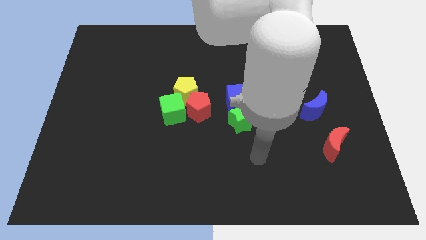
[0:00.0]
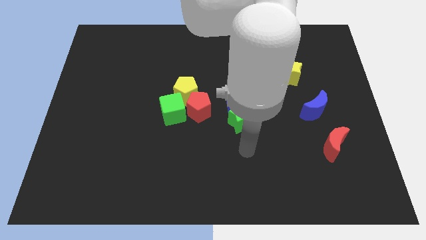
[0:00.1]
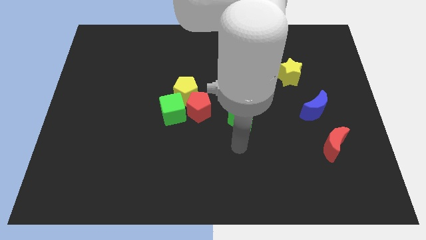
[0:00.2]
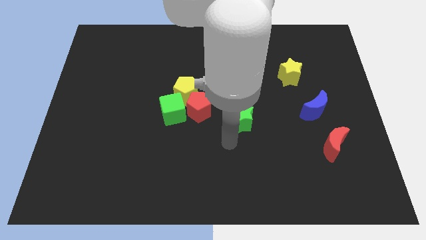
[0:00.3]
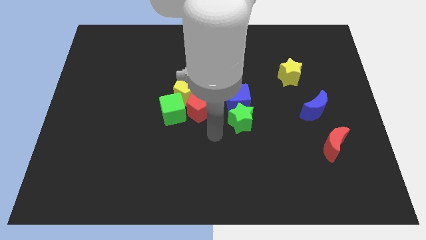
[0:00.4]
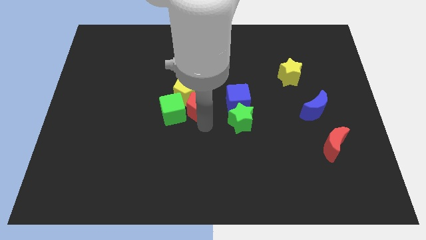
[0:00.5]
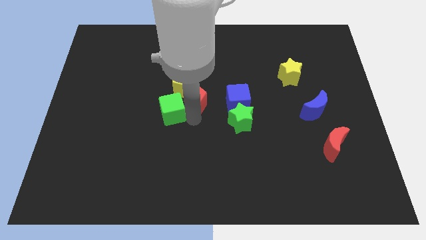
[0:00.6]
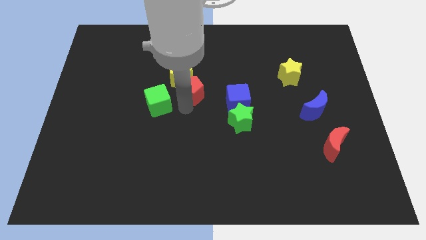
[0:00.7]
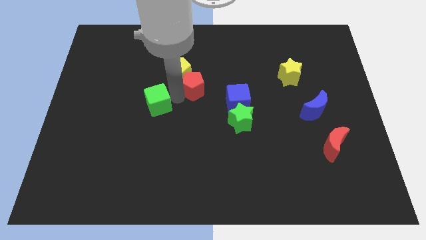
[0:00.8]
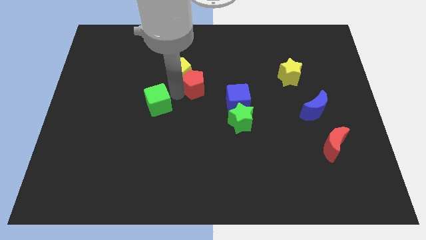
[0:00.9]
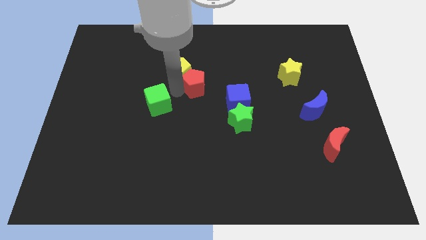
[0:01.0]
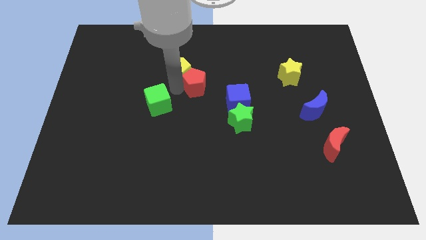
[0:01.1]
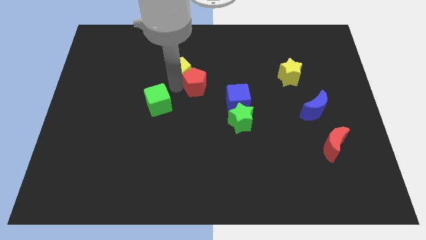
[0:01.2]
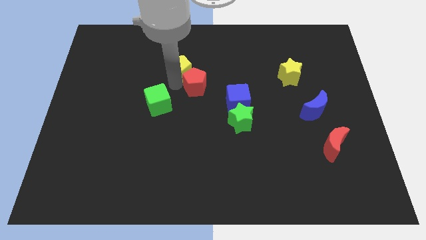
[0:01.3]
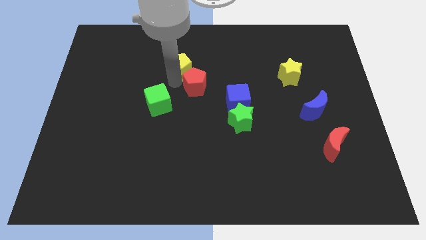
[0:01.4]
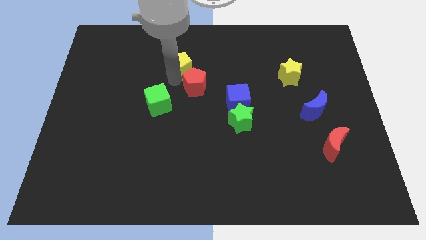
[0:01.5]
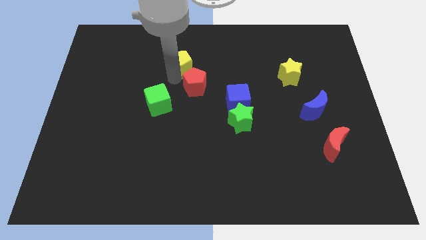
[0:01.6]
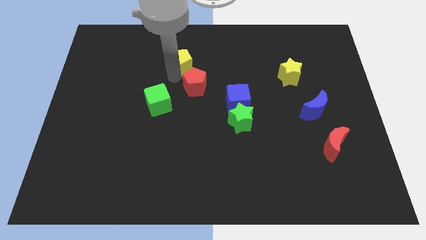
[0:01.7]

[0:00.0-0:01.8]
pull the yellow pentagon apart from the red pentagon and green cube

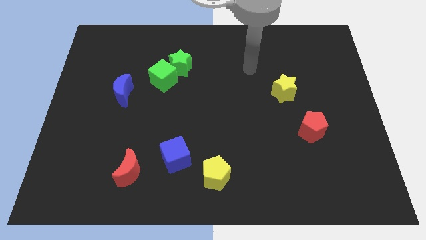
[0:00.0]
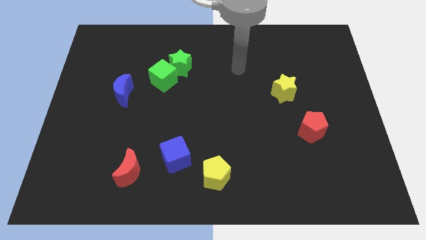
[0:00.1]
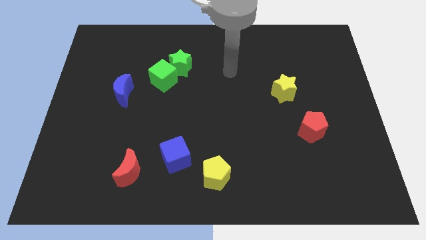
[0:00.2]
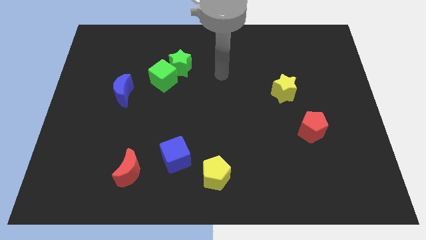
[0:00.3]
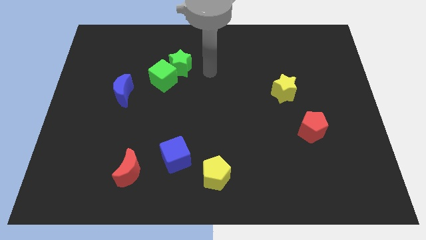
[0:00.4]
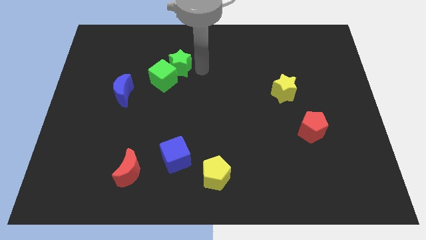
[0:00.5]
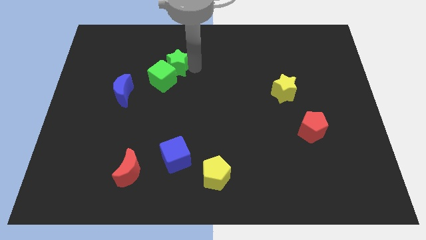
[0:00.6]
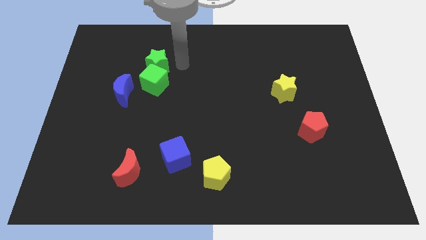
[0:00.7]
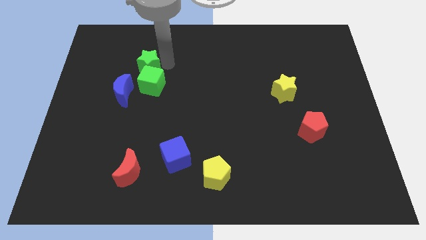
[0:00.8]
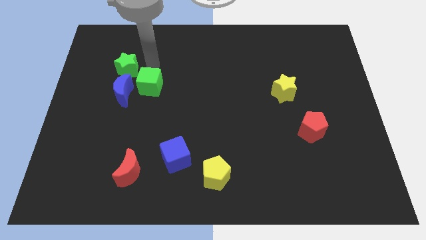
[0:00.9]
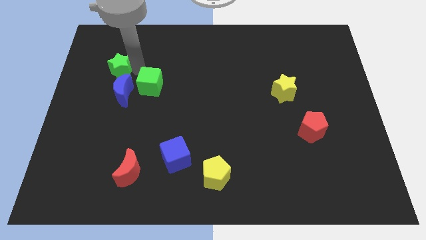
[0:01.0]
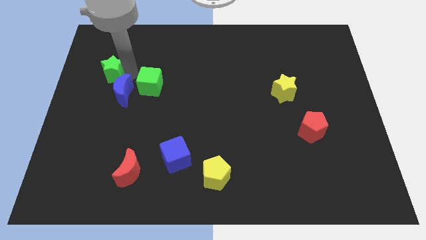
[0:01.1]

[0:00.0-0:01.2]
pull the green cube apart from the green star

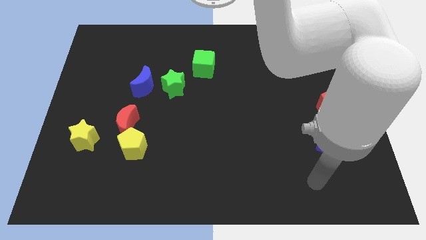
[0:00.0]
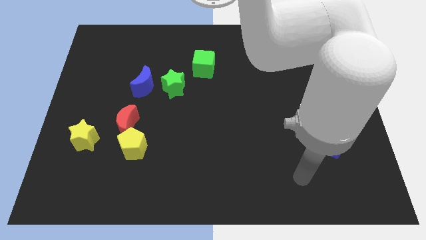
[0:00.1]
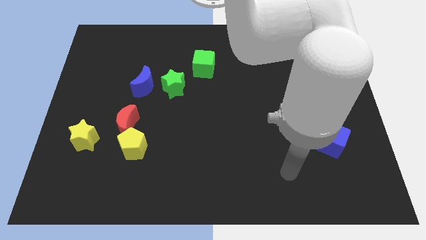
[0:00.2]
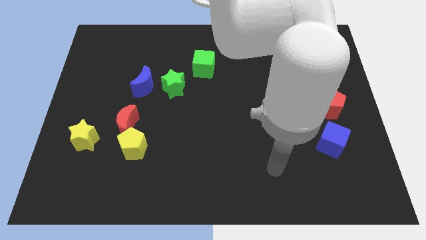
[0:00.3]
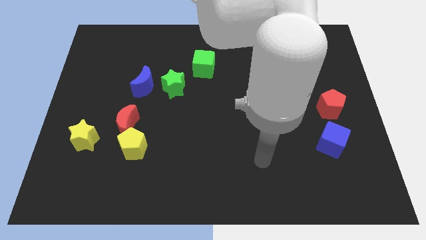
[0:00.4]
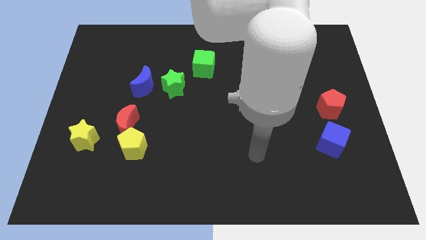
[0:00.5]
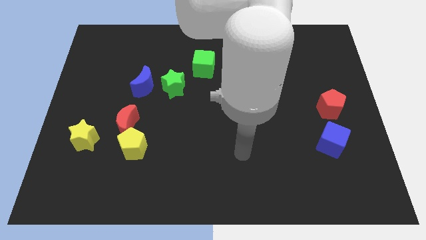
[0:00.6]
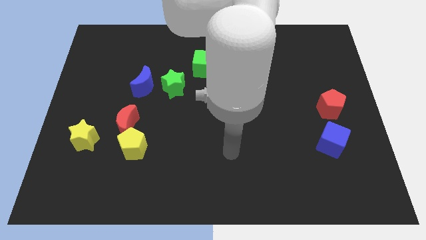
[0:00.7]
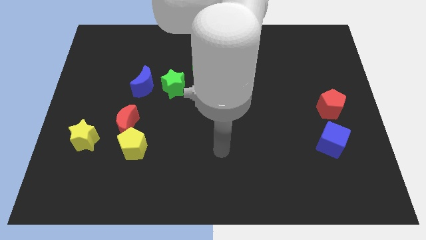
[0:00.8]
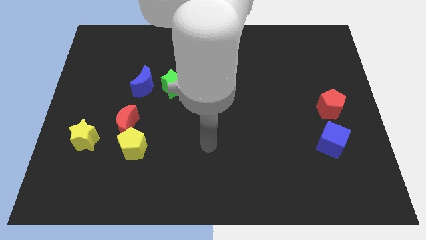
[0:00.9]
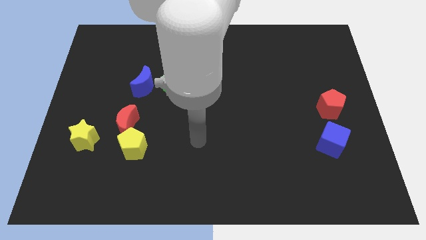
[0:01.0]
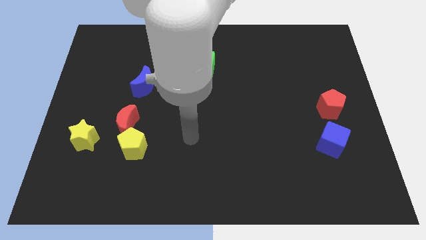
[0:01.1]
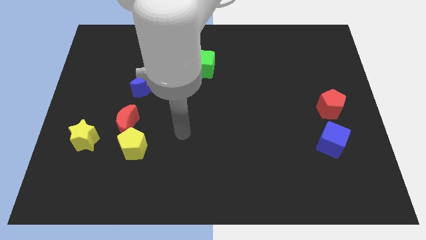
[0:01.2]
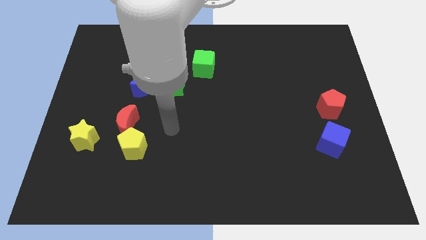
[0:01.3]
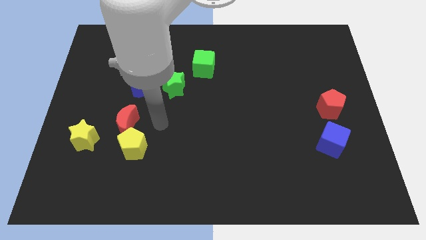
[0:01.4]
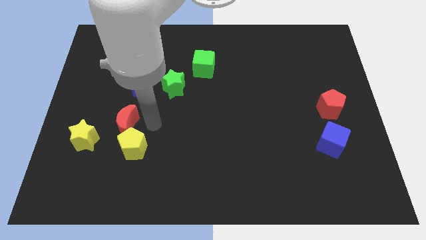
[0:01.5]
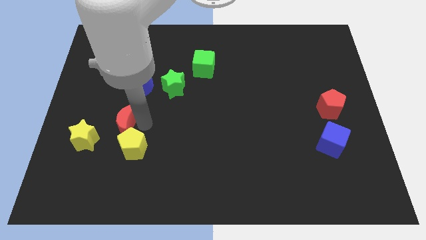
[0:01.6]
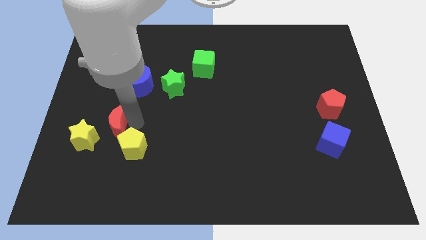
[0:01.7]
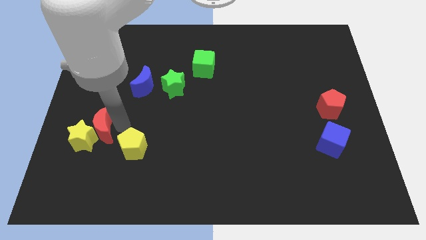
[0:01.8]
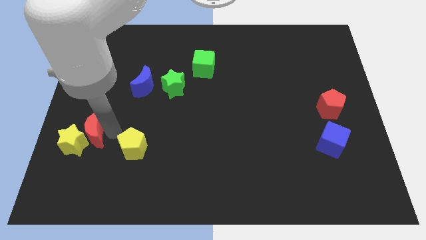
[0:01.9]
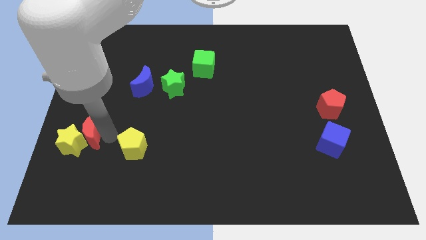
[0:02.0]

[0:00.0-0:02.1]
pull the yellow pentagon apart from the red moon

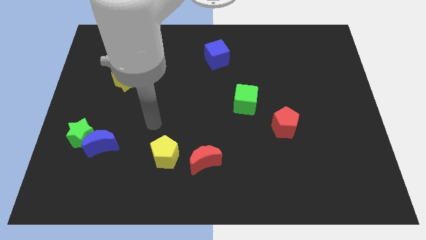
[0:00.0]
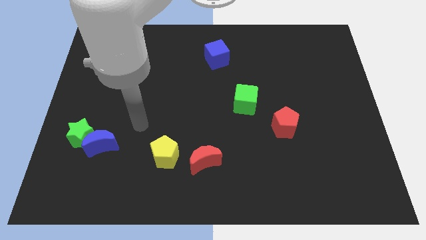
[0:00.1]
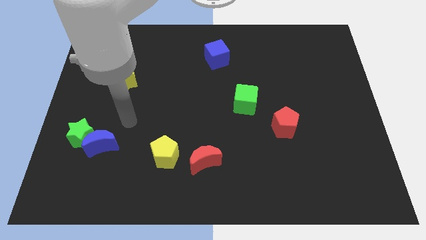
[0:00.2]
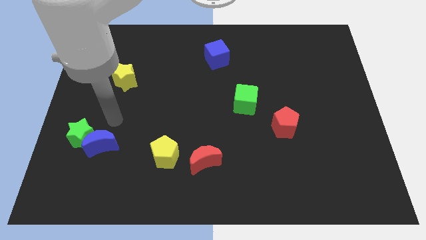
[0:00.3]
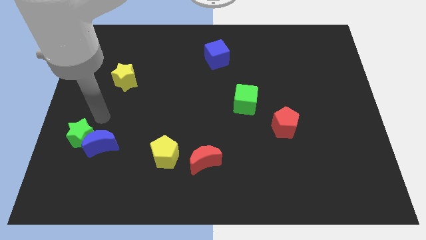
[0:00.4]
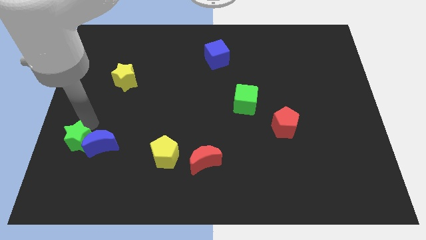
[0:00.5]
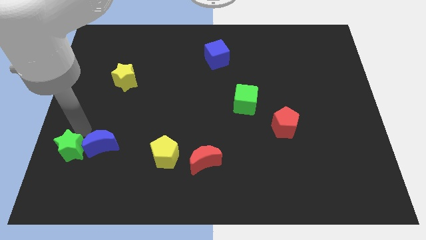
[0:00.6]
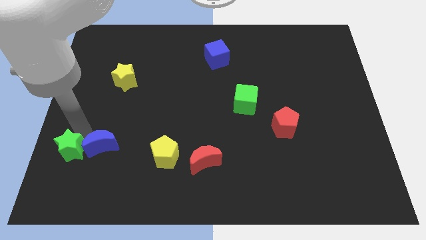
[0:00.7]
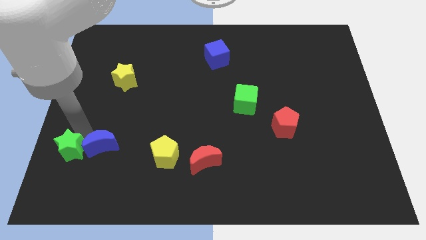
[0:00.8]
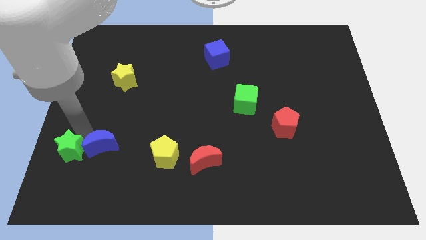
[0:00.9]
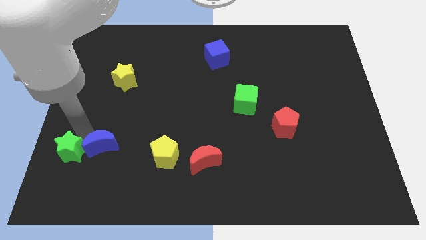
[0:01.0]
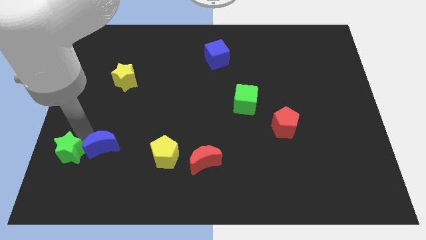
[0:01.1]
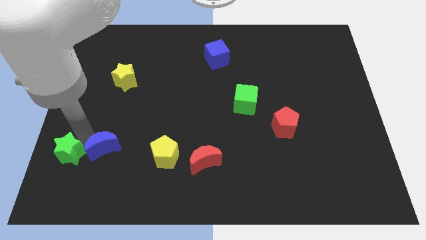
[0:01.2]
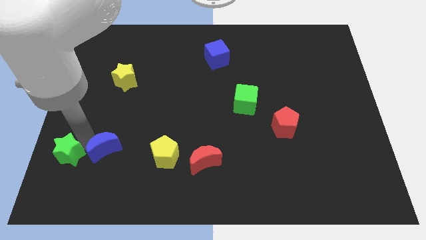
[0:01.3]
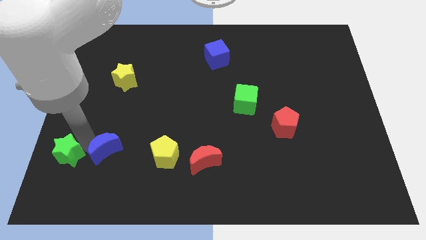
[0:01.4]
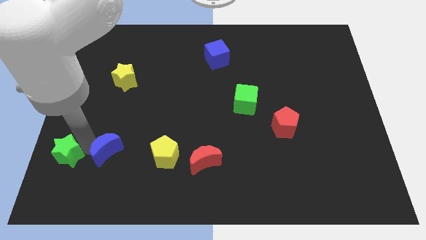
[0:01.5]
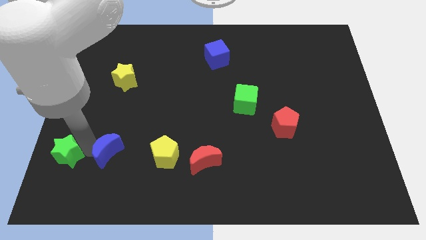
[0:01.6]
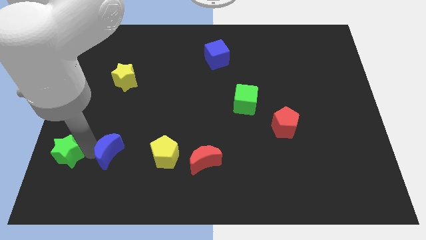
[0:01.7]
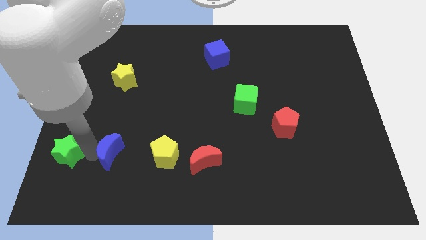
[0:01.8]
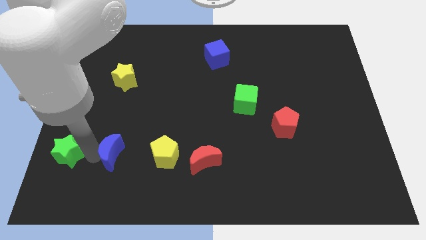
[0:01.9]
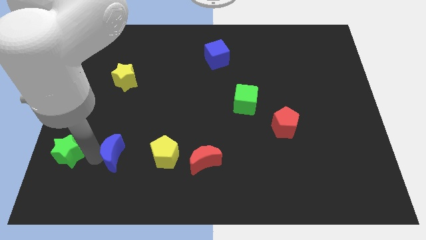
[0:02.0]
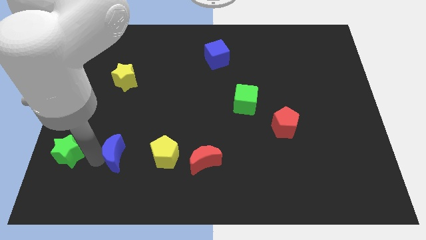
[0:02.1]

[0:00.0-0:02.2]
separate the blue moon from the green star

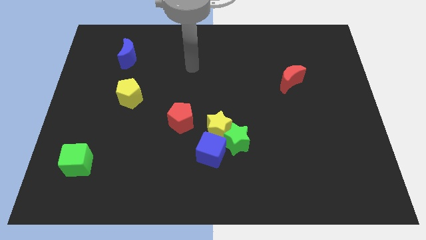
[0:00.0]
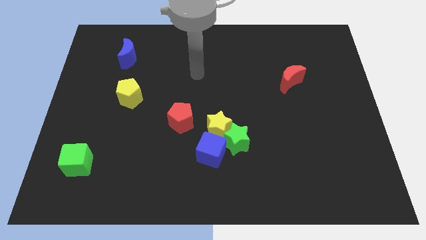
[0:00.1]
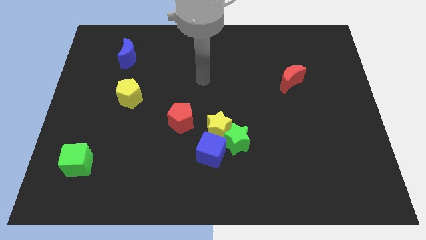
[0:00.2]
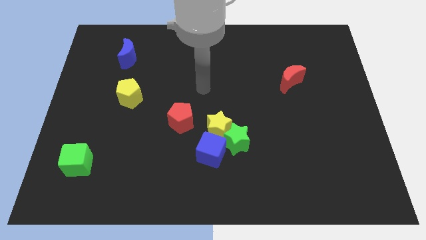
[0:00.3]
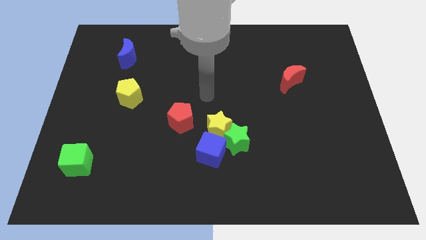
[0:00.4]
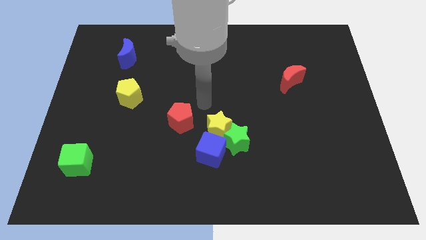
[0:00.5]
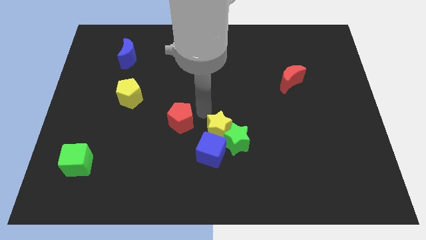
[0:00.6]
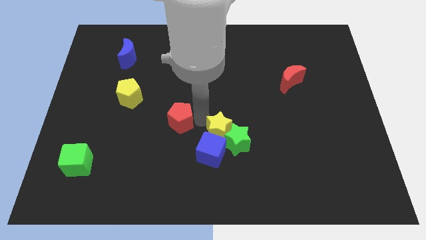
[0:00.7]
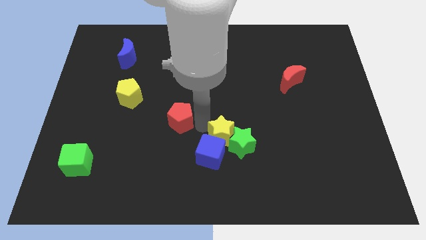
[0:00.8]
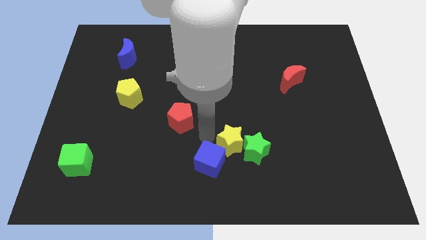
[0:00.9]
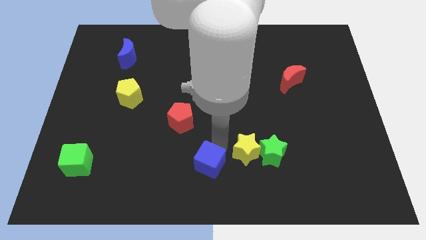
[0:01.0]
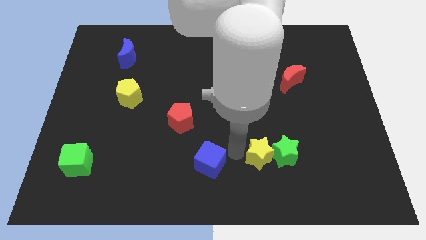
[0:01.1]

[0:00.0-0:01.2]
pull the green star apart from the yellow star and blue cube

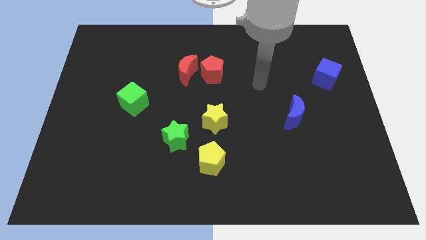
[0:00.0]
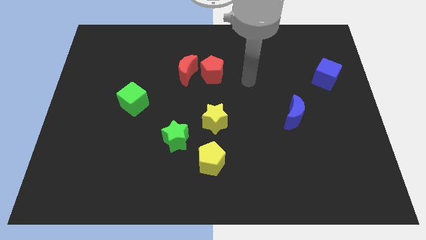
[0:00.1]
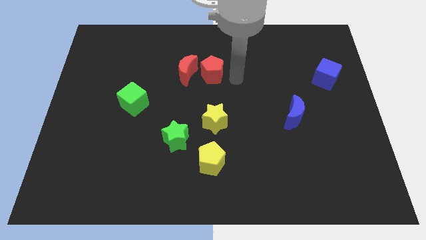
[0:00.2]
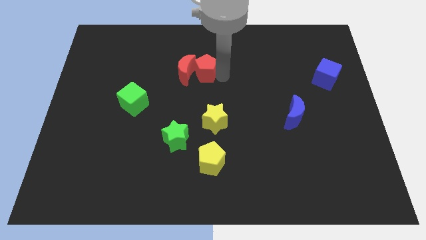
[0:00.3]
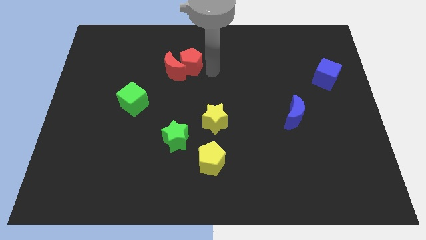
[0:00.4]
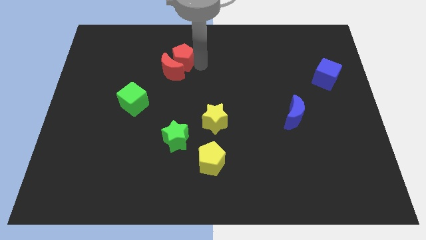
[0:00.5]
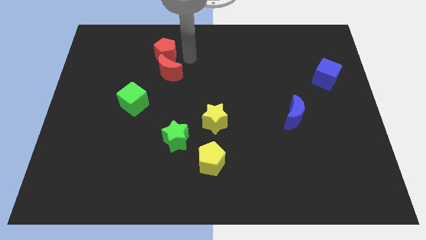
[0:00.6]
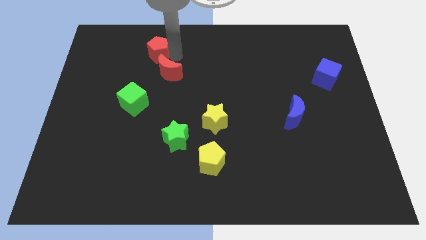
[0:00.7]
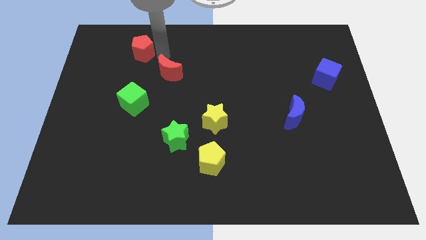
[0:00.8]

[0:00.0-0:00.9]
separate the red moon from the red pentagon
